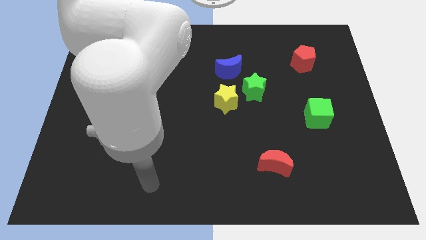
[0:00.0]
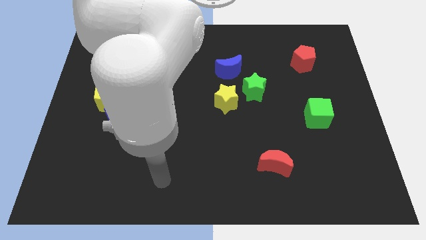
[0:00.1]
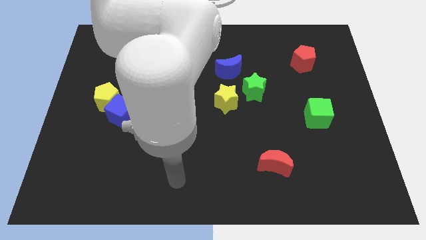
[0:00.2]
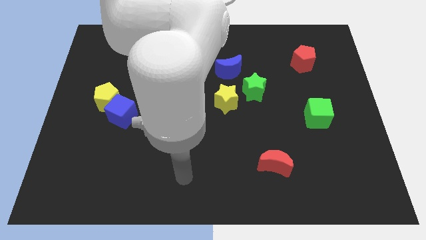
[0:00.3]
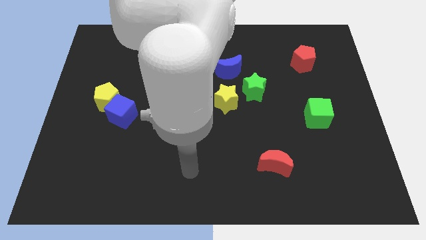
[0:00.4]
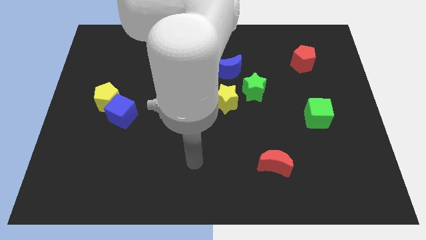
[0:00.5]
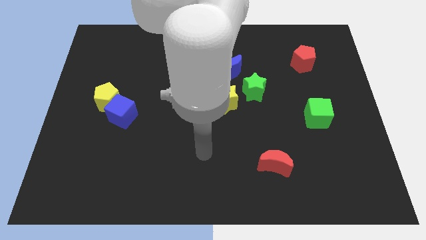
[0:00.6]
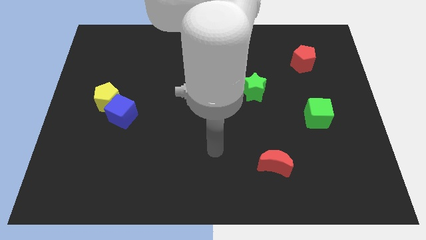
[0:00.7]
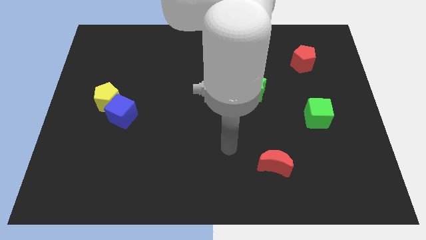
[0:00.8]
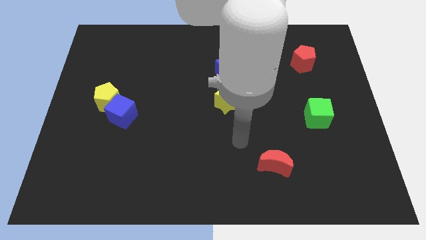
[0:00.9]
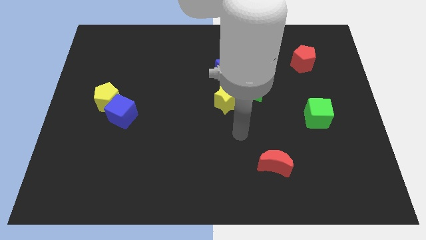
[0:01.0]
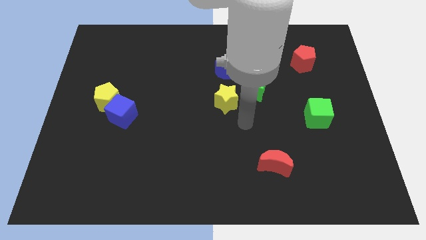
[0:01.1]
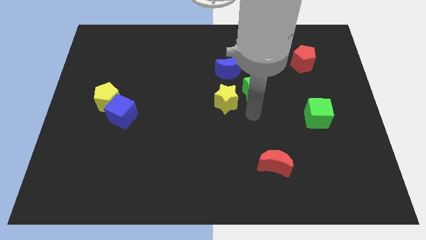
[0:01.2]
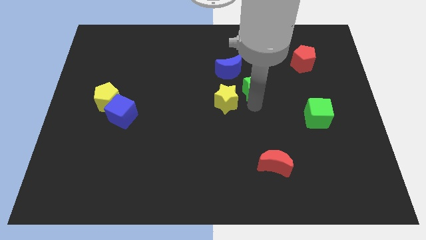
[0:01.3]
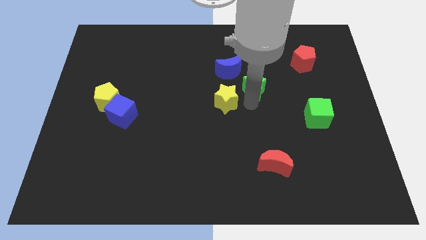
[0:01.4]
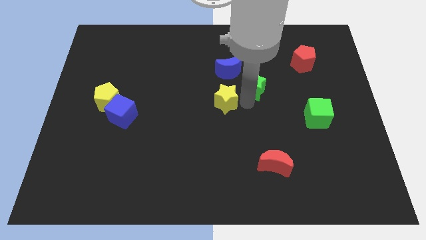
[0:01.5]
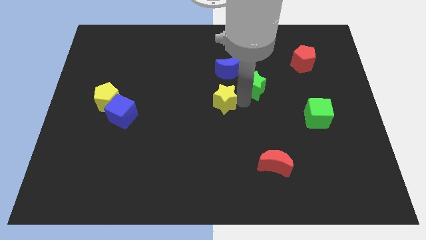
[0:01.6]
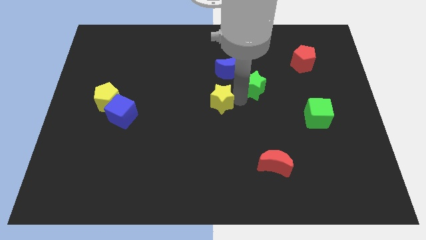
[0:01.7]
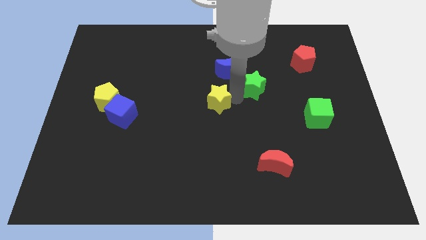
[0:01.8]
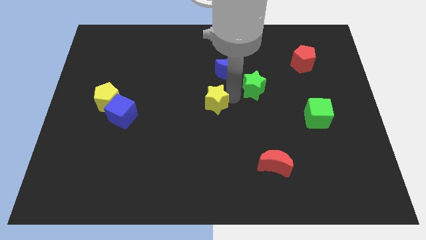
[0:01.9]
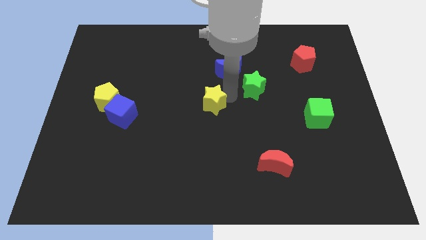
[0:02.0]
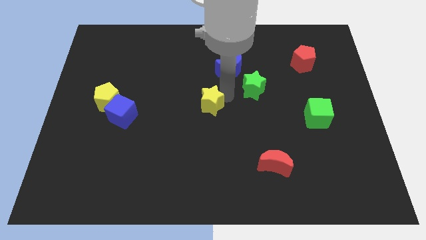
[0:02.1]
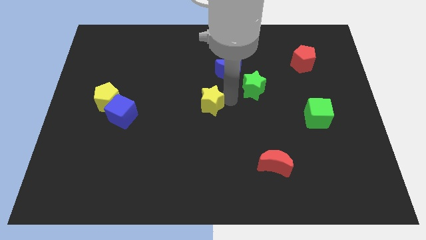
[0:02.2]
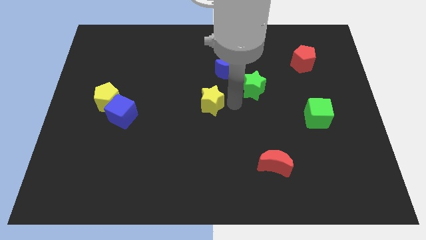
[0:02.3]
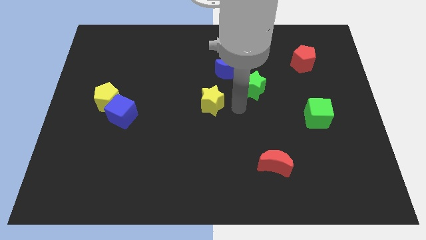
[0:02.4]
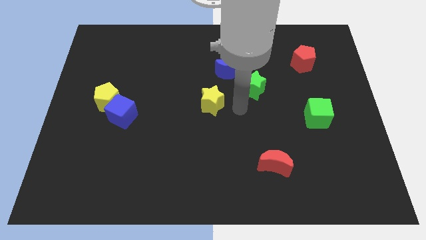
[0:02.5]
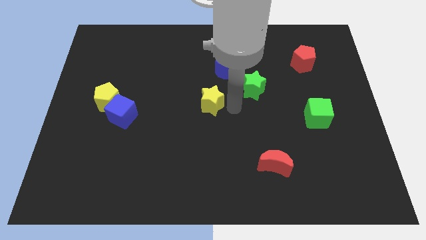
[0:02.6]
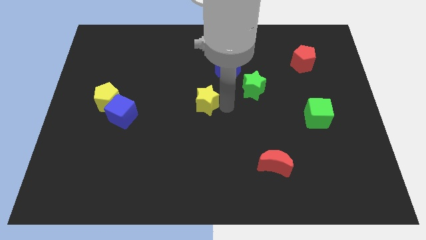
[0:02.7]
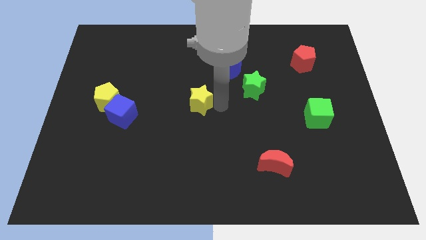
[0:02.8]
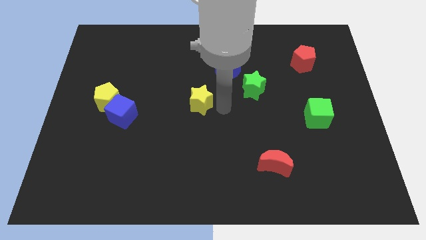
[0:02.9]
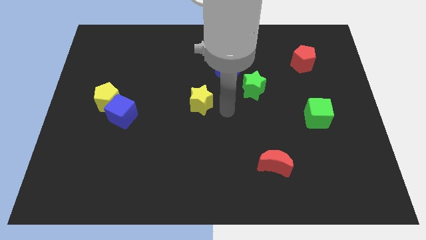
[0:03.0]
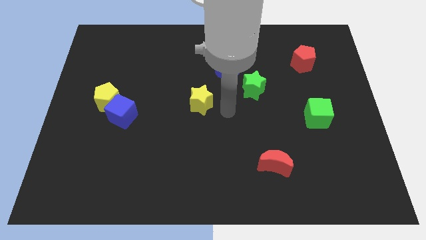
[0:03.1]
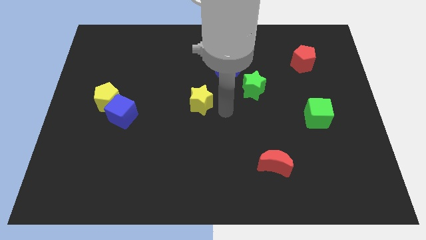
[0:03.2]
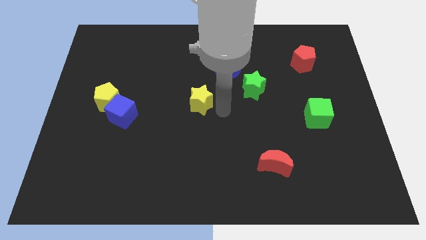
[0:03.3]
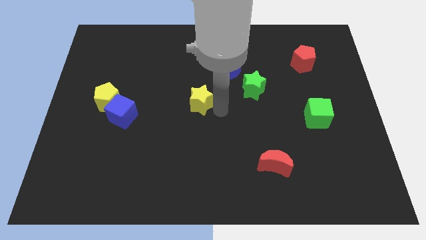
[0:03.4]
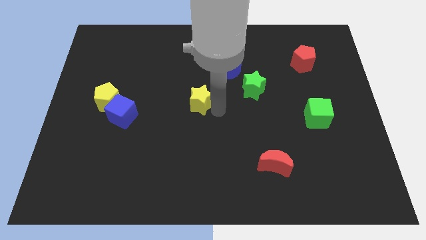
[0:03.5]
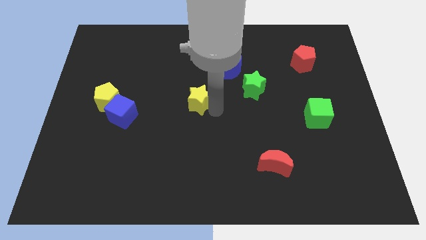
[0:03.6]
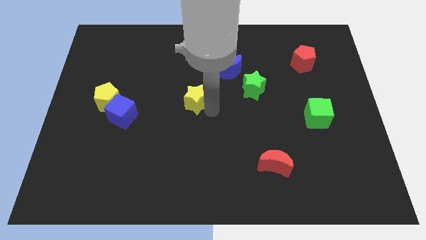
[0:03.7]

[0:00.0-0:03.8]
push the yellow star to the left a little bit

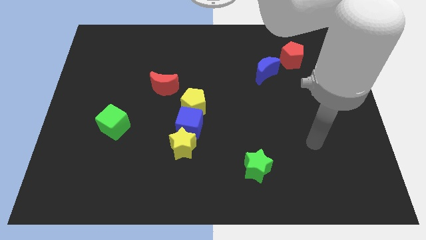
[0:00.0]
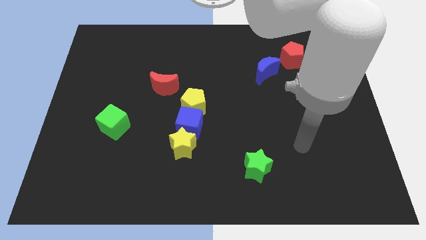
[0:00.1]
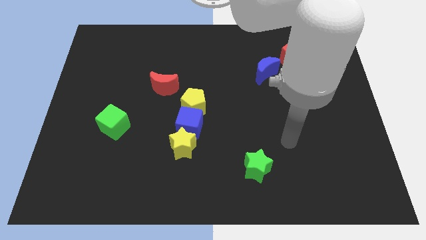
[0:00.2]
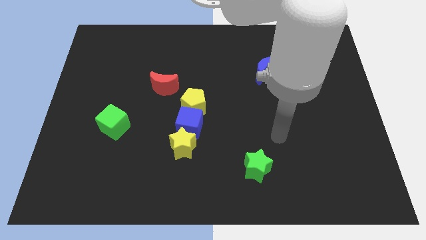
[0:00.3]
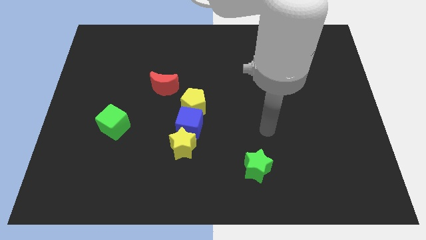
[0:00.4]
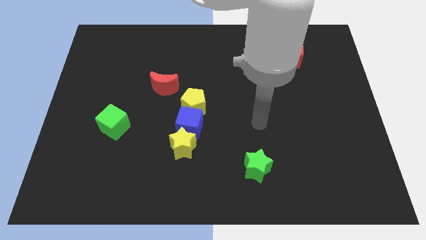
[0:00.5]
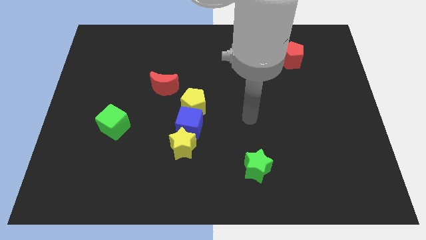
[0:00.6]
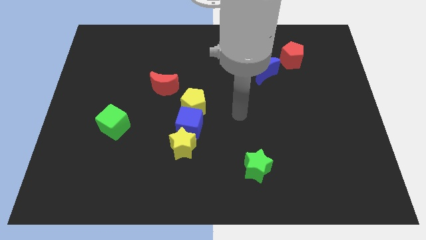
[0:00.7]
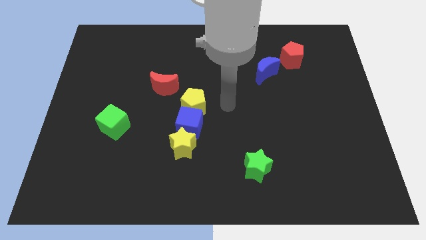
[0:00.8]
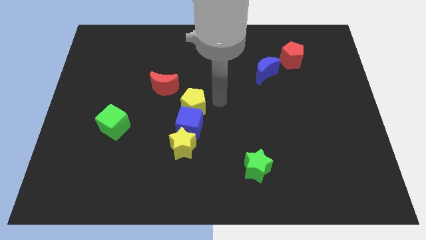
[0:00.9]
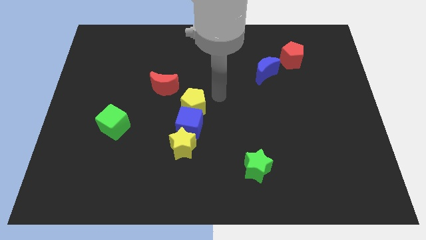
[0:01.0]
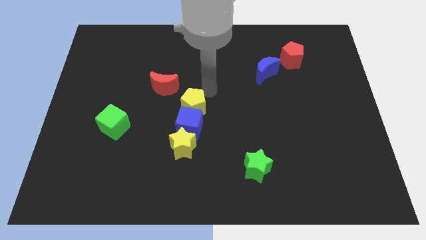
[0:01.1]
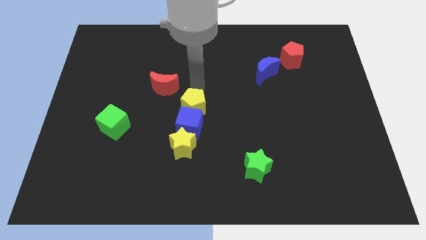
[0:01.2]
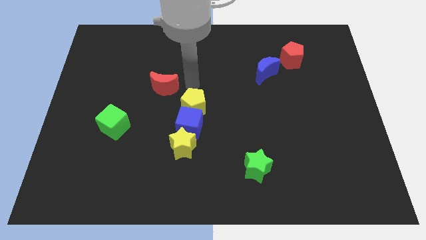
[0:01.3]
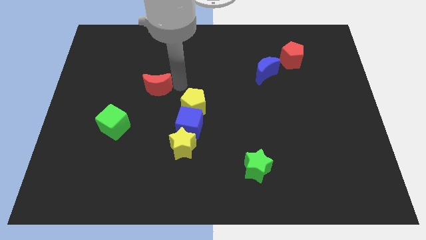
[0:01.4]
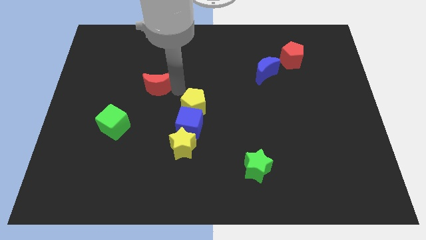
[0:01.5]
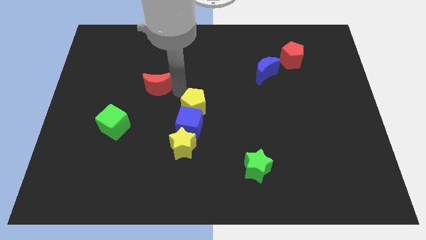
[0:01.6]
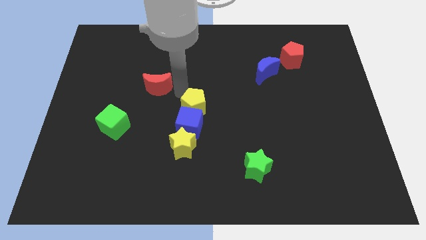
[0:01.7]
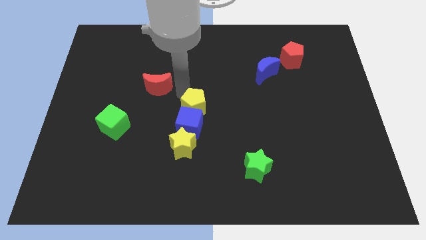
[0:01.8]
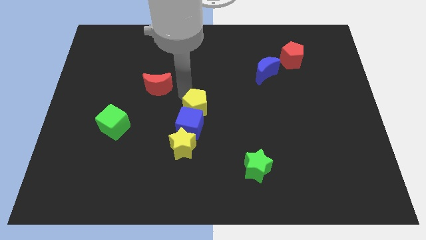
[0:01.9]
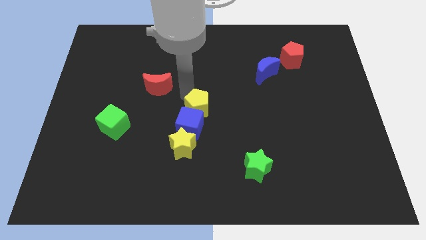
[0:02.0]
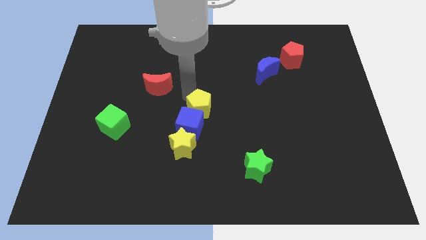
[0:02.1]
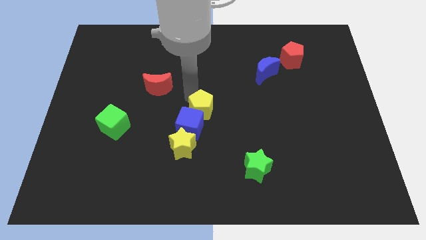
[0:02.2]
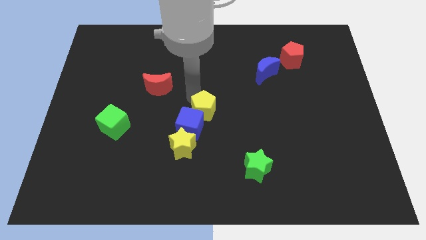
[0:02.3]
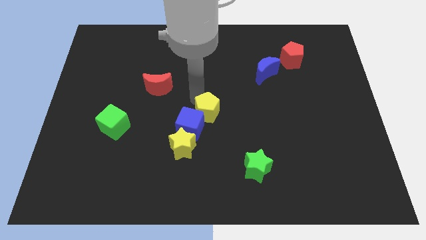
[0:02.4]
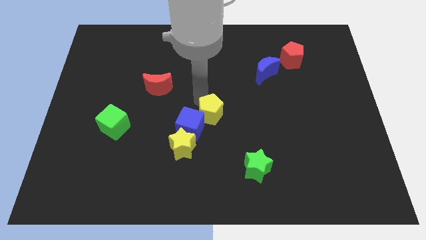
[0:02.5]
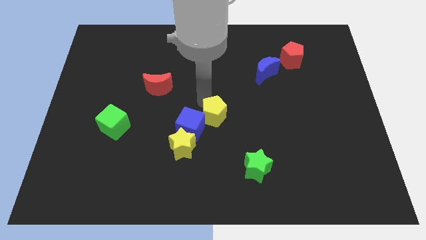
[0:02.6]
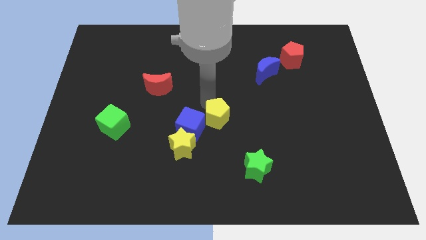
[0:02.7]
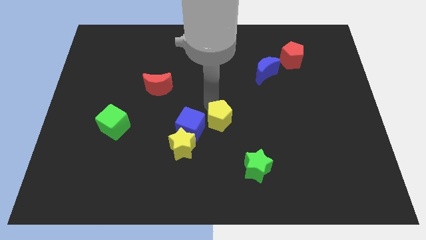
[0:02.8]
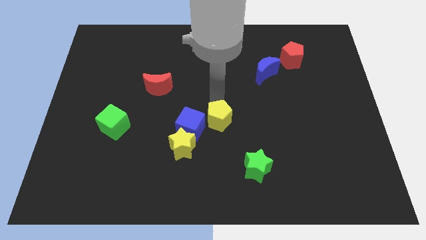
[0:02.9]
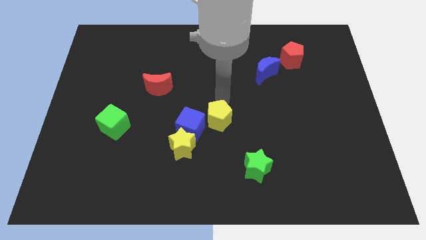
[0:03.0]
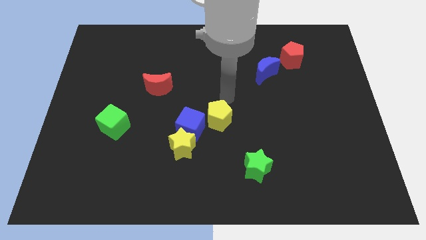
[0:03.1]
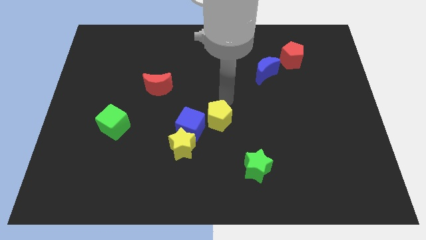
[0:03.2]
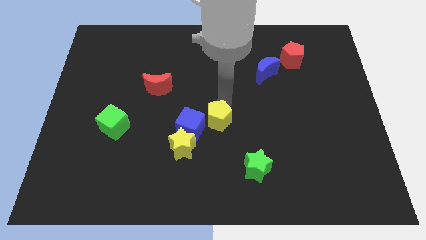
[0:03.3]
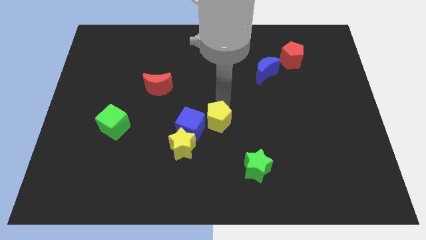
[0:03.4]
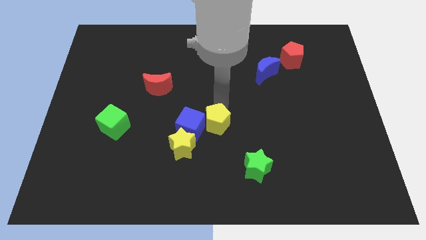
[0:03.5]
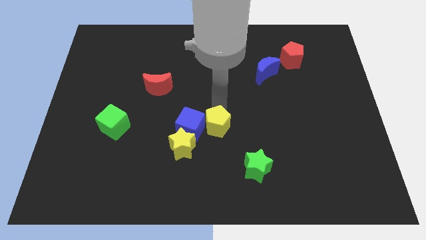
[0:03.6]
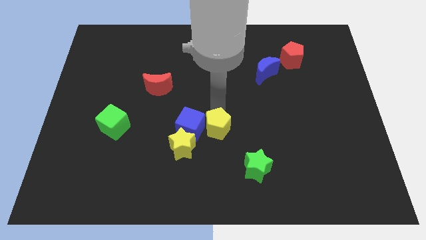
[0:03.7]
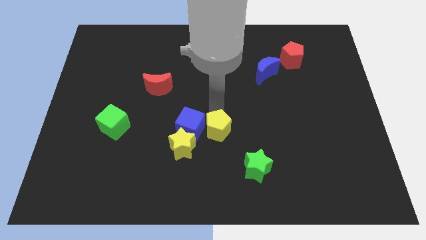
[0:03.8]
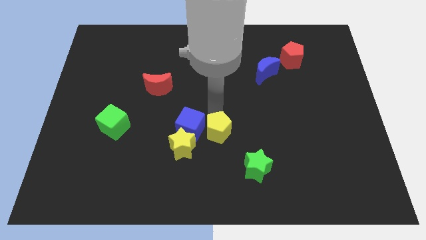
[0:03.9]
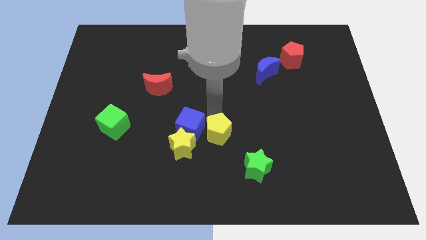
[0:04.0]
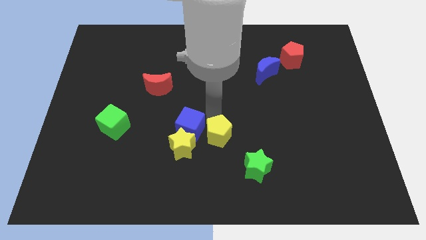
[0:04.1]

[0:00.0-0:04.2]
slide the yellow pentagon a little bit down
